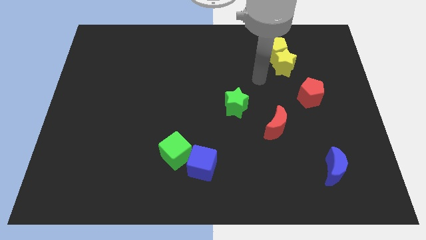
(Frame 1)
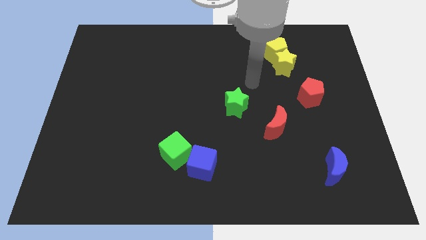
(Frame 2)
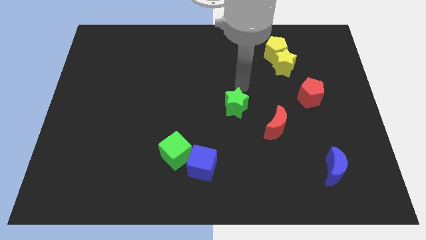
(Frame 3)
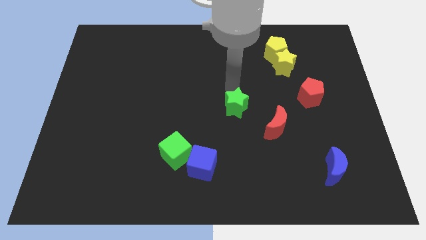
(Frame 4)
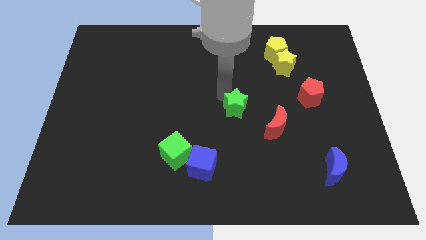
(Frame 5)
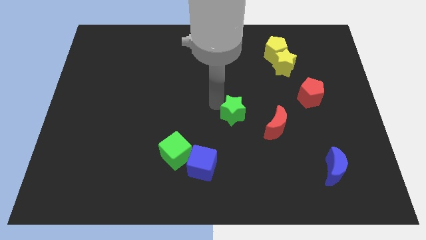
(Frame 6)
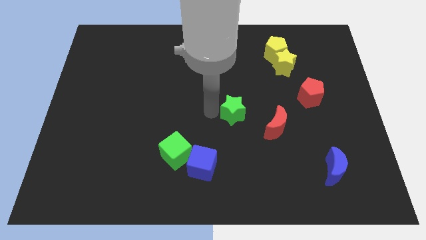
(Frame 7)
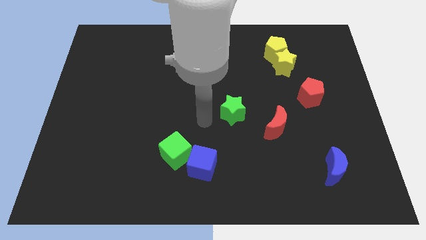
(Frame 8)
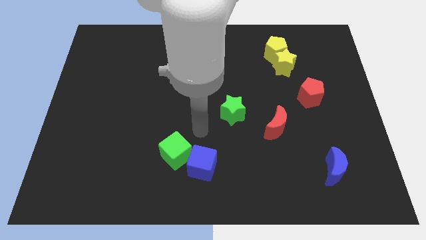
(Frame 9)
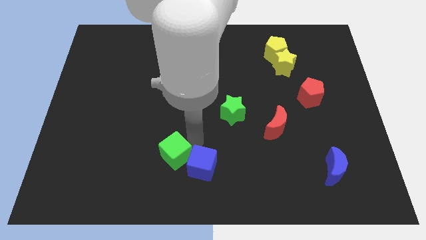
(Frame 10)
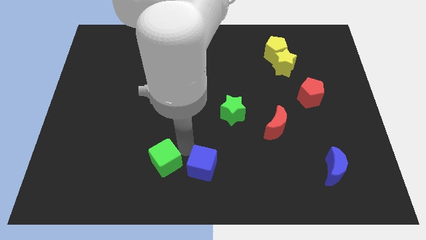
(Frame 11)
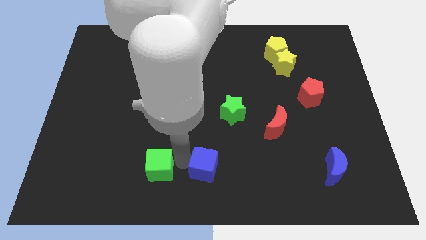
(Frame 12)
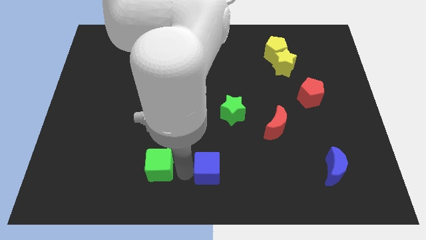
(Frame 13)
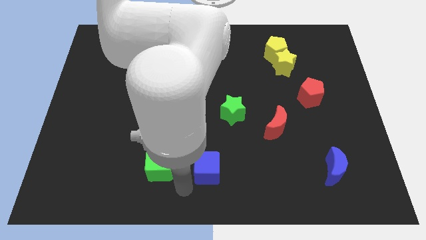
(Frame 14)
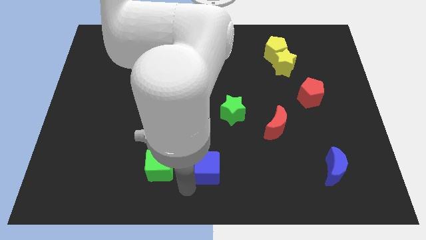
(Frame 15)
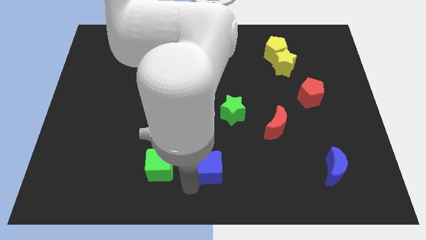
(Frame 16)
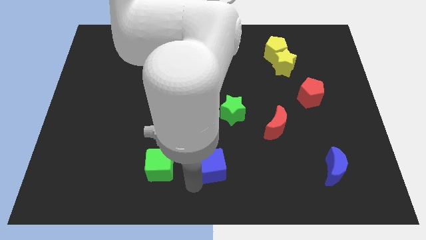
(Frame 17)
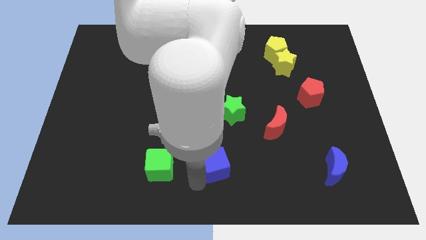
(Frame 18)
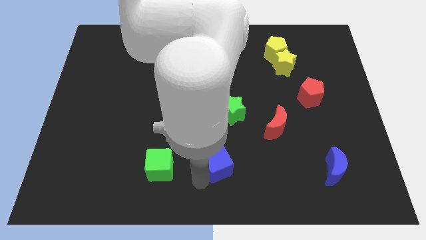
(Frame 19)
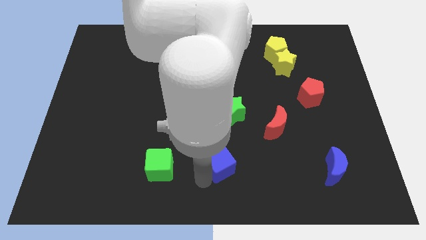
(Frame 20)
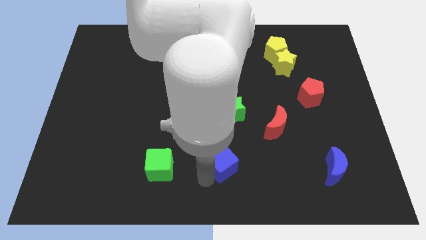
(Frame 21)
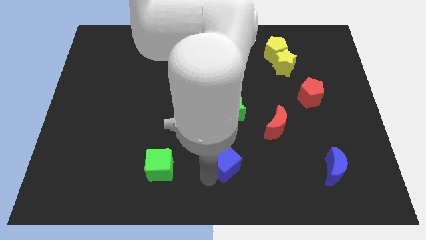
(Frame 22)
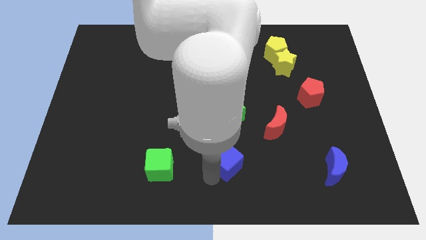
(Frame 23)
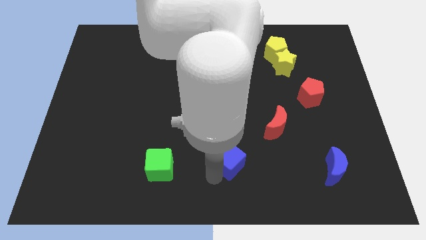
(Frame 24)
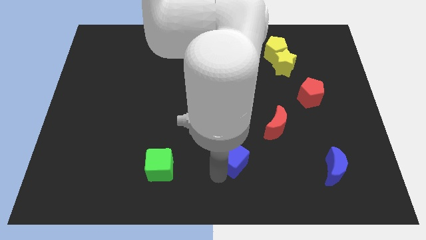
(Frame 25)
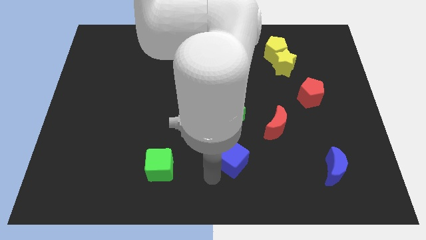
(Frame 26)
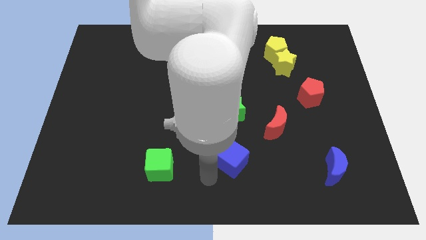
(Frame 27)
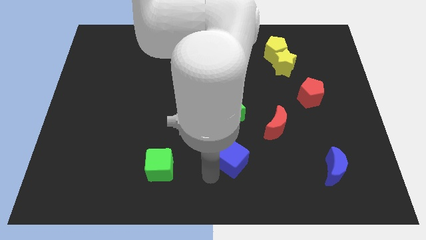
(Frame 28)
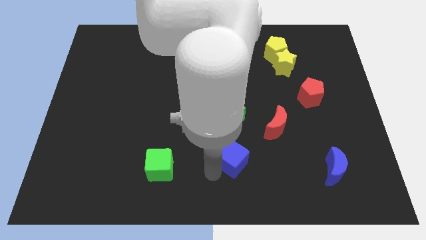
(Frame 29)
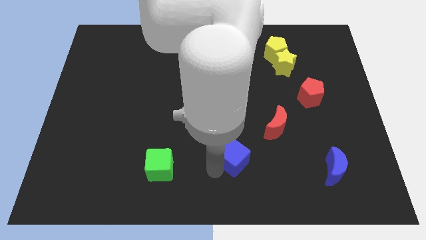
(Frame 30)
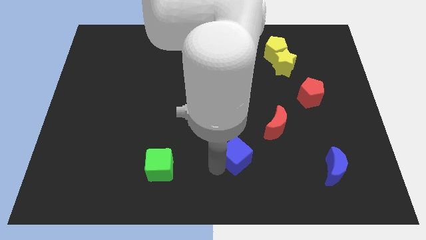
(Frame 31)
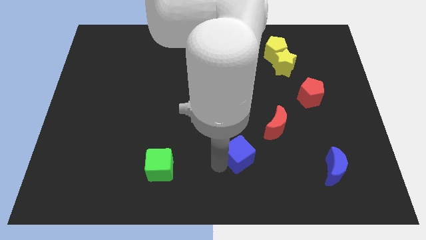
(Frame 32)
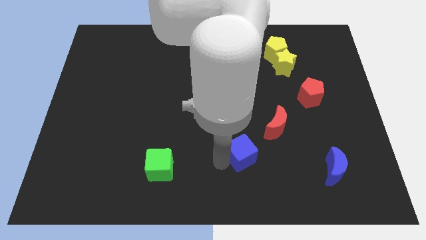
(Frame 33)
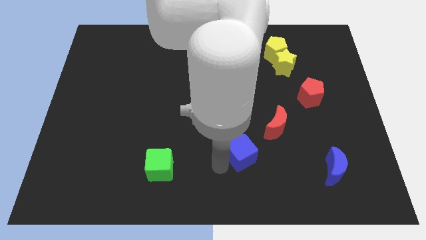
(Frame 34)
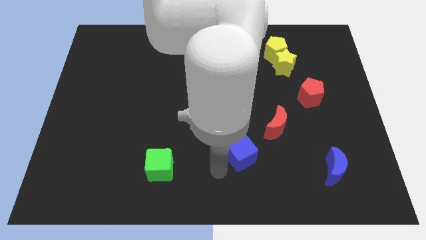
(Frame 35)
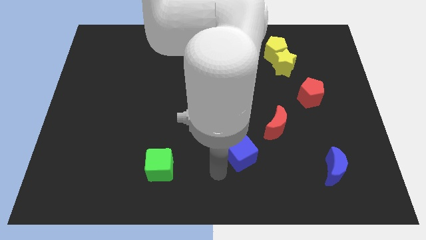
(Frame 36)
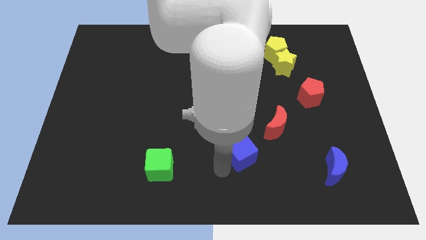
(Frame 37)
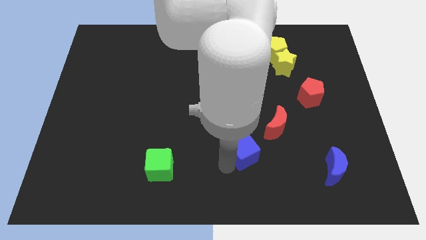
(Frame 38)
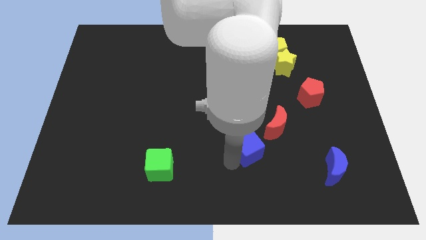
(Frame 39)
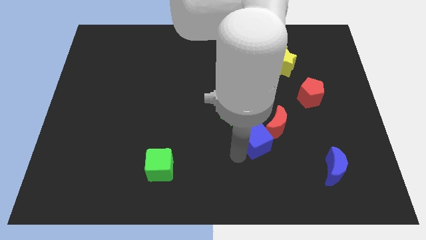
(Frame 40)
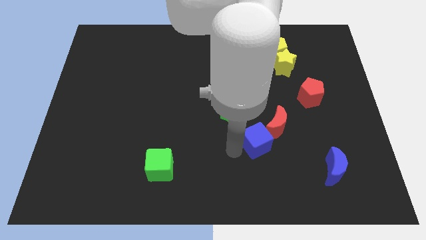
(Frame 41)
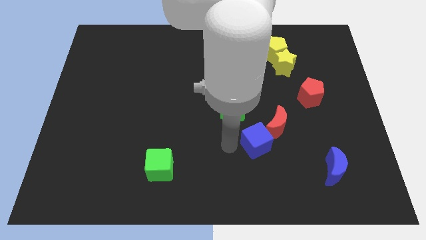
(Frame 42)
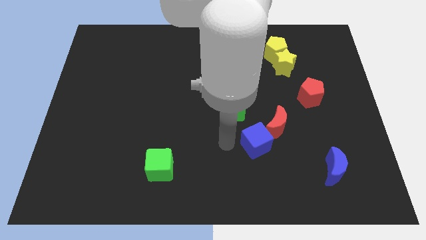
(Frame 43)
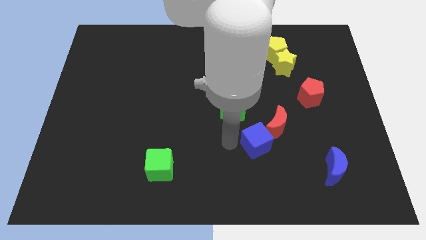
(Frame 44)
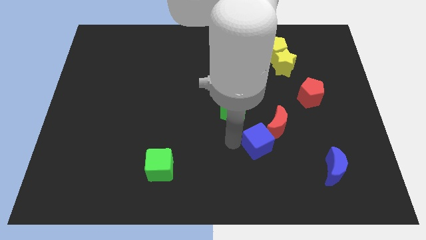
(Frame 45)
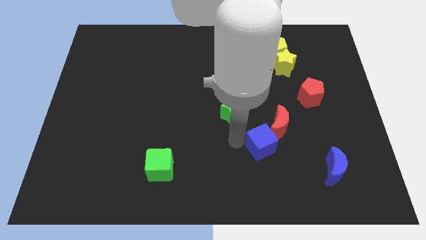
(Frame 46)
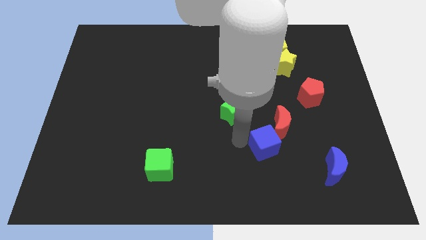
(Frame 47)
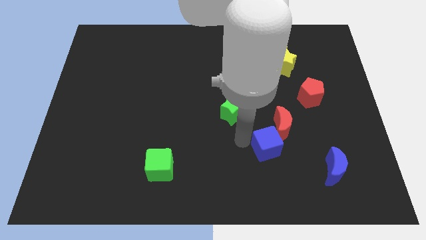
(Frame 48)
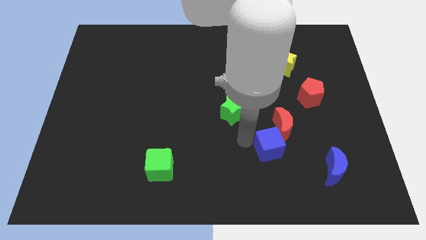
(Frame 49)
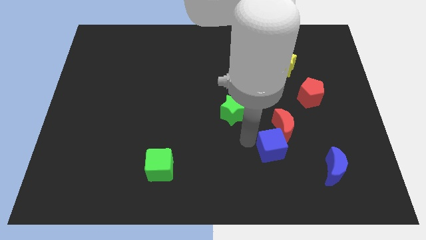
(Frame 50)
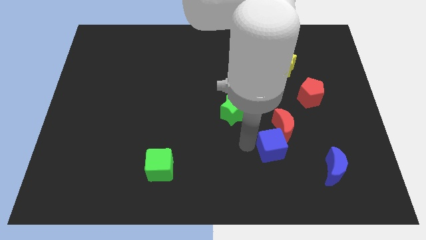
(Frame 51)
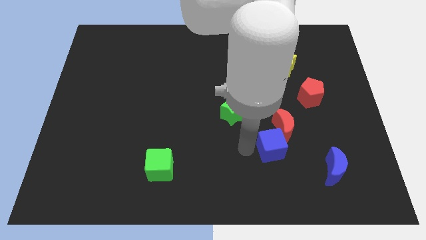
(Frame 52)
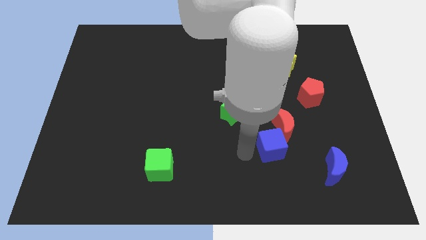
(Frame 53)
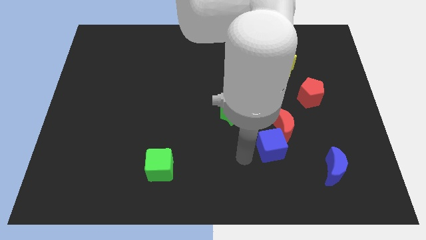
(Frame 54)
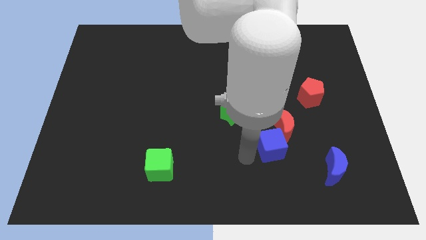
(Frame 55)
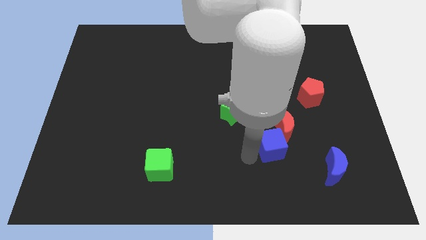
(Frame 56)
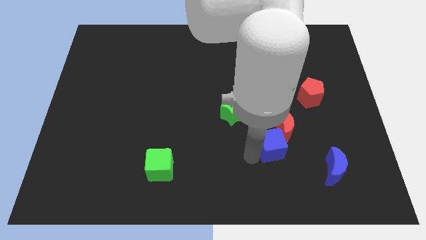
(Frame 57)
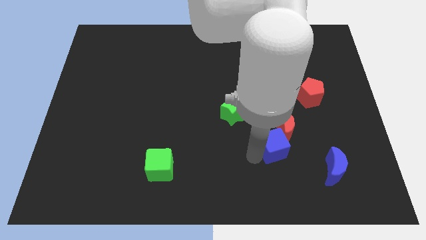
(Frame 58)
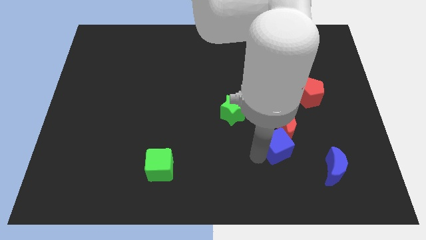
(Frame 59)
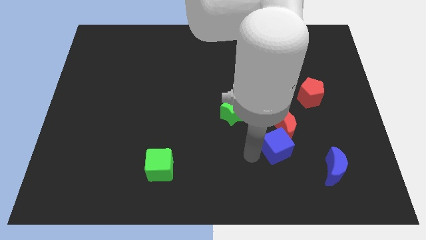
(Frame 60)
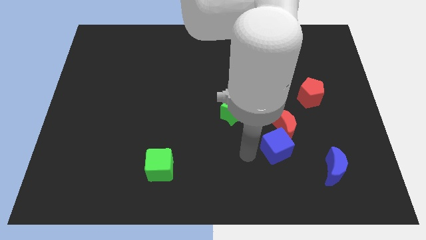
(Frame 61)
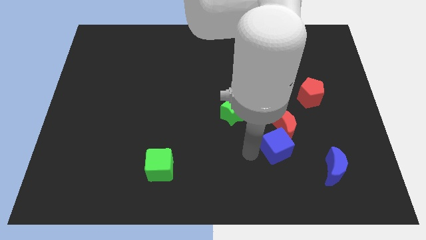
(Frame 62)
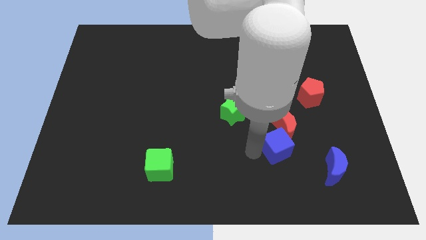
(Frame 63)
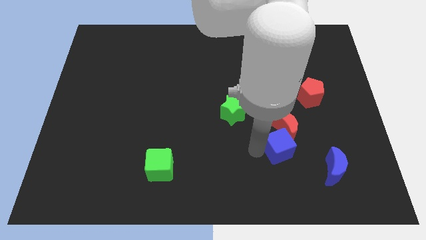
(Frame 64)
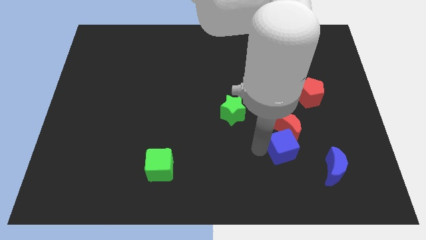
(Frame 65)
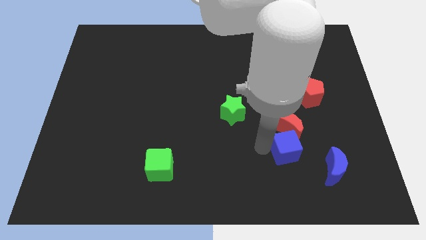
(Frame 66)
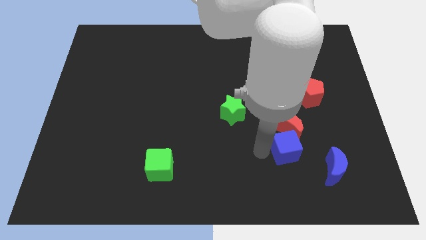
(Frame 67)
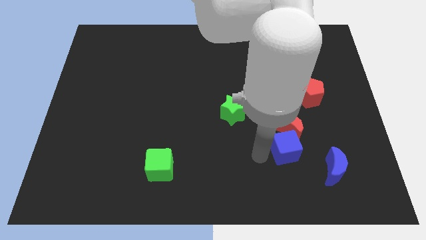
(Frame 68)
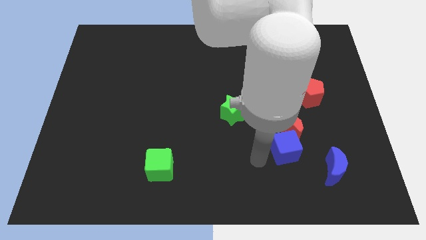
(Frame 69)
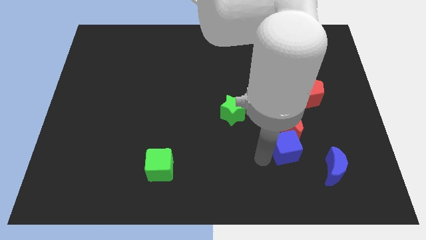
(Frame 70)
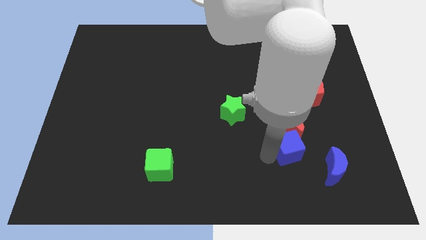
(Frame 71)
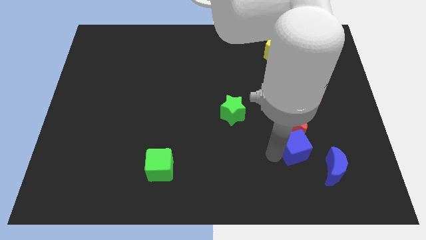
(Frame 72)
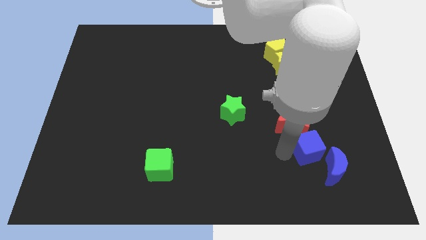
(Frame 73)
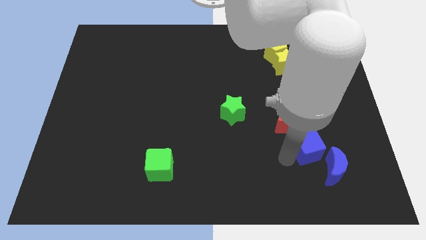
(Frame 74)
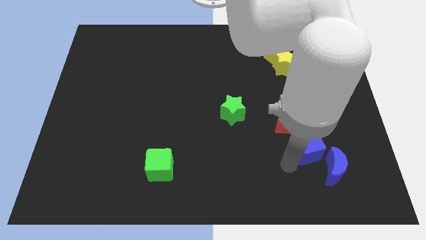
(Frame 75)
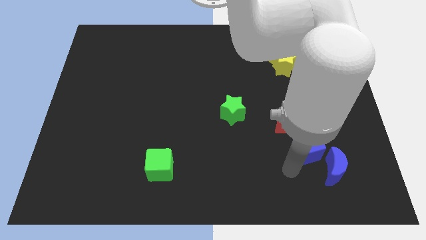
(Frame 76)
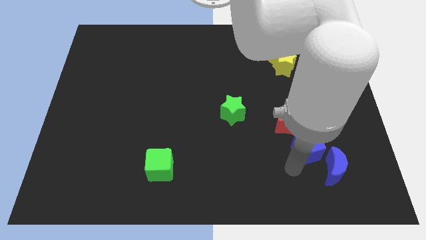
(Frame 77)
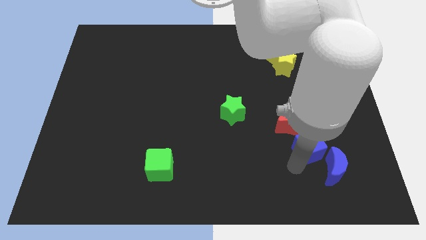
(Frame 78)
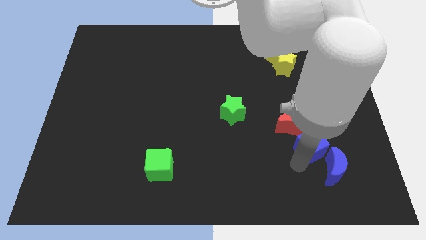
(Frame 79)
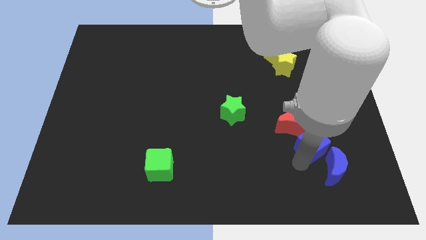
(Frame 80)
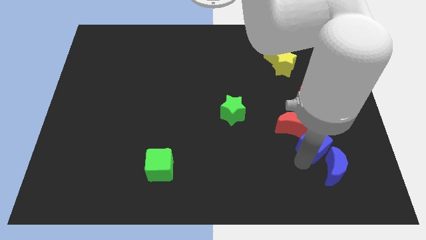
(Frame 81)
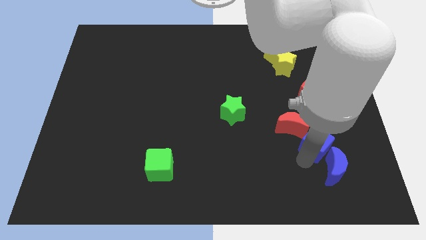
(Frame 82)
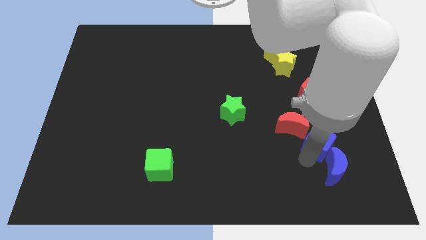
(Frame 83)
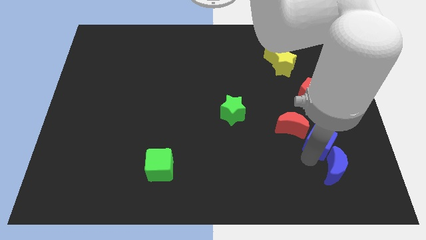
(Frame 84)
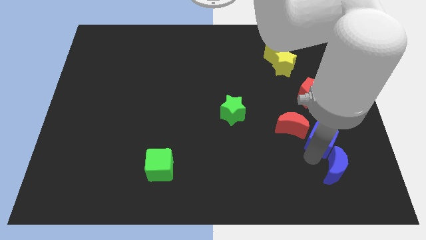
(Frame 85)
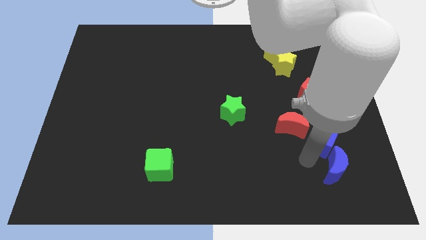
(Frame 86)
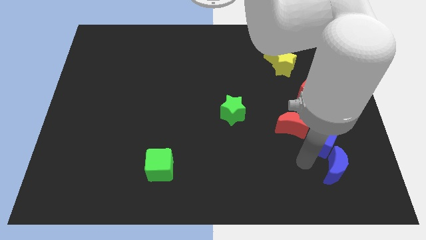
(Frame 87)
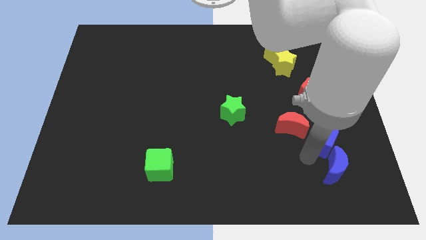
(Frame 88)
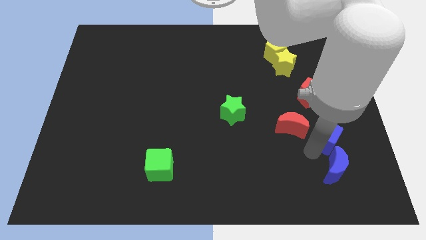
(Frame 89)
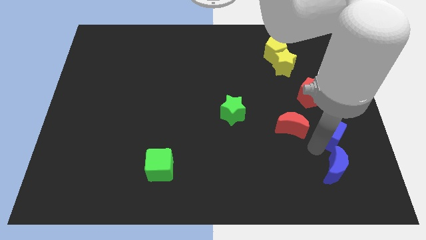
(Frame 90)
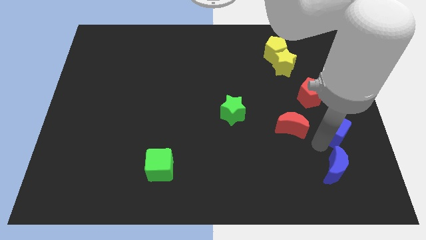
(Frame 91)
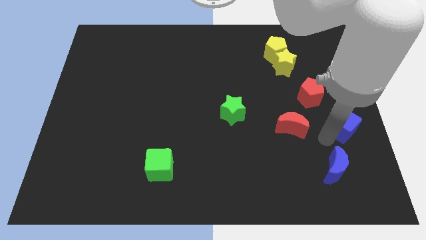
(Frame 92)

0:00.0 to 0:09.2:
slide the blue cube to the right side of the board
